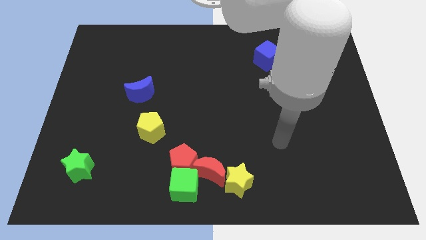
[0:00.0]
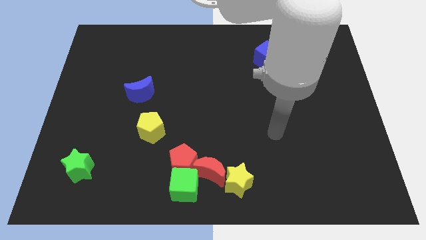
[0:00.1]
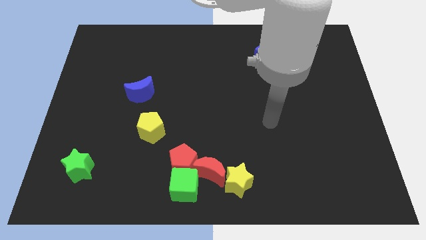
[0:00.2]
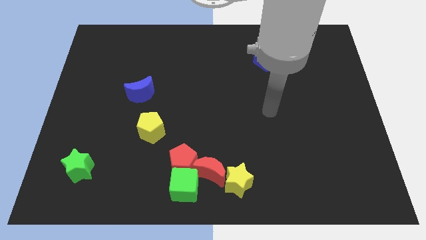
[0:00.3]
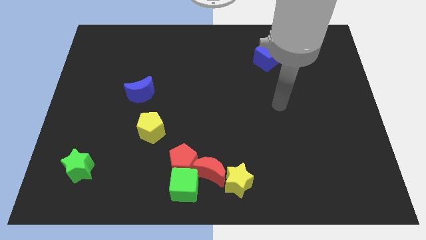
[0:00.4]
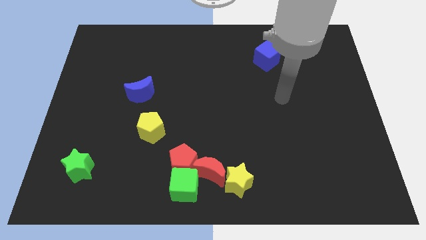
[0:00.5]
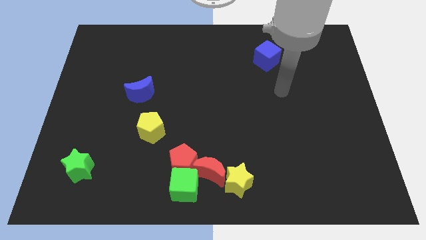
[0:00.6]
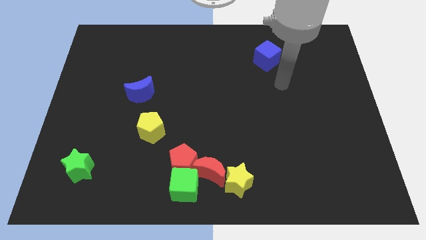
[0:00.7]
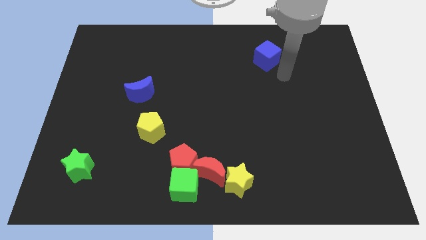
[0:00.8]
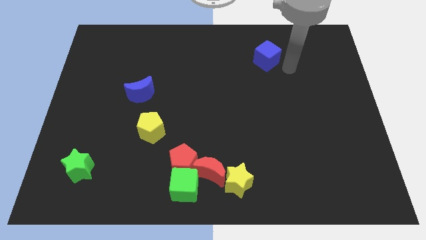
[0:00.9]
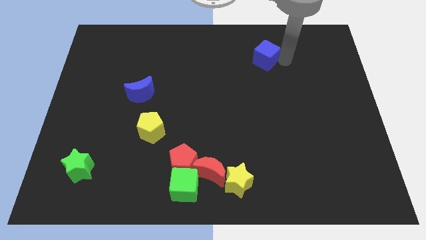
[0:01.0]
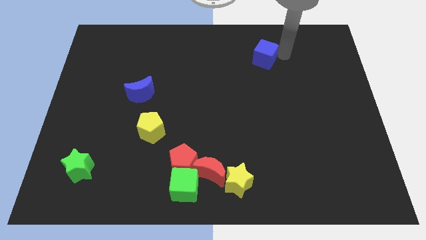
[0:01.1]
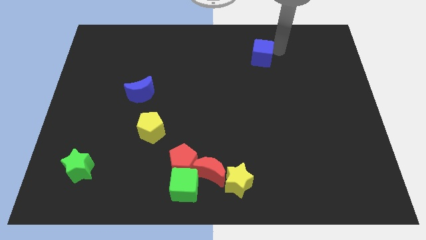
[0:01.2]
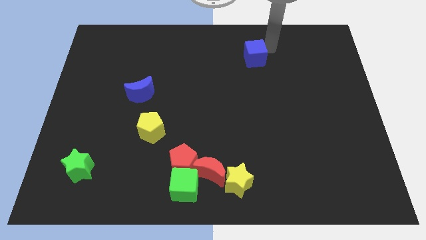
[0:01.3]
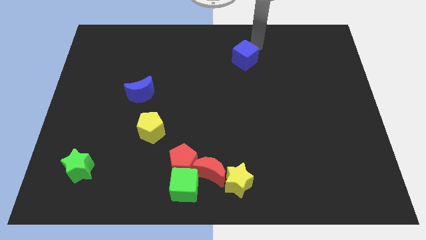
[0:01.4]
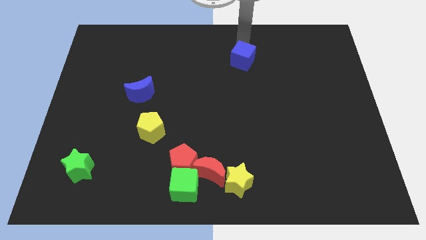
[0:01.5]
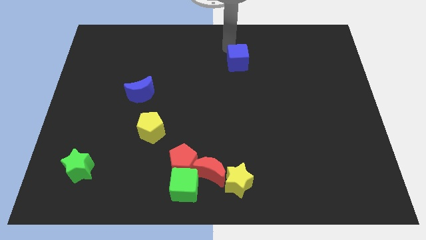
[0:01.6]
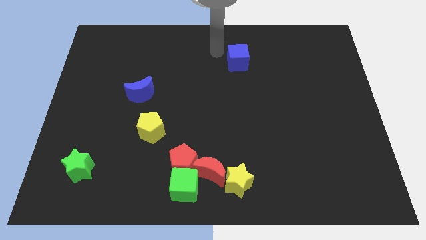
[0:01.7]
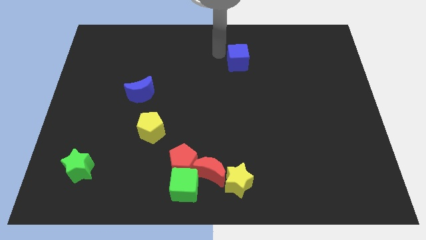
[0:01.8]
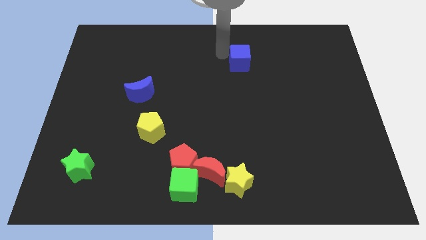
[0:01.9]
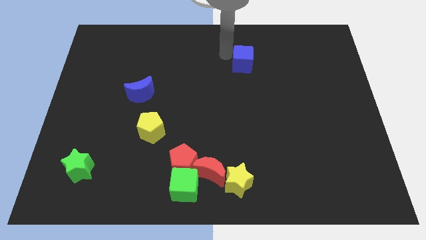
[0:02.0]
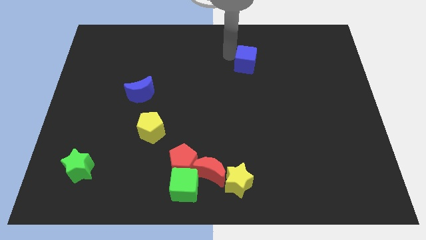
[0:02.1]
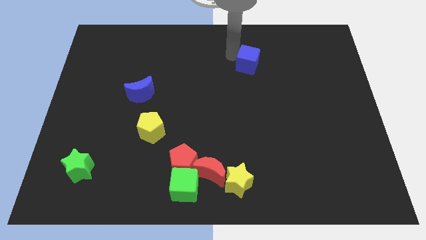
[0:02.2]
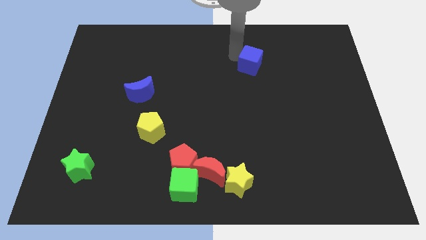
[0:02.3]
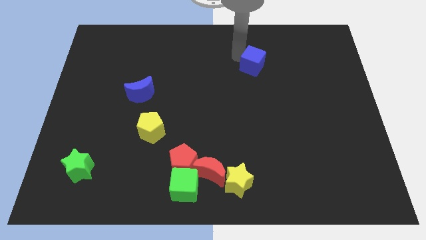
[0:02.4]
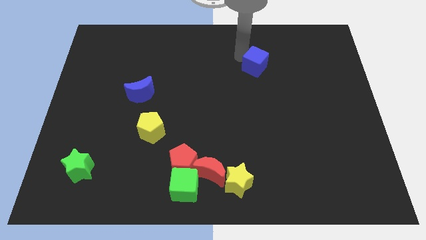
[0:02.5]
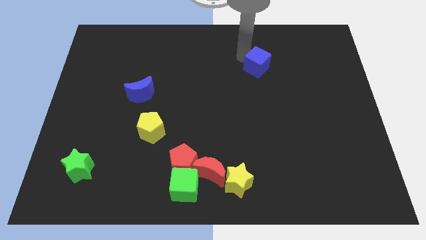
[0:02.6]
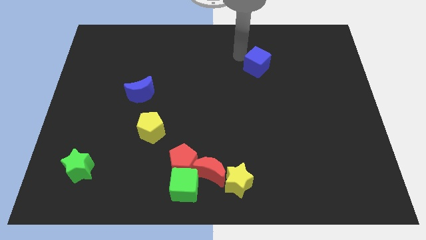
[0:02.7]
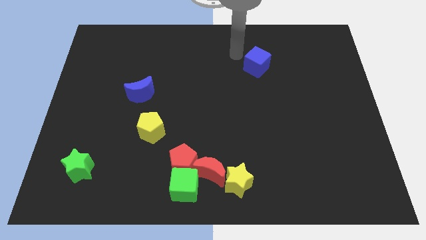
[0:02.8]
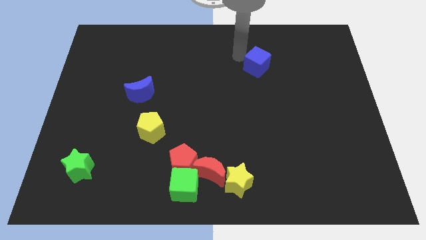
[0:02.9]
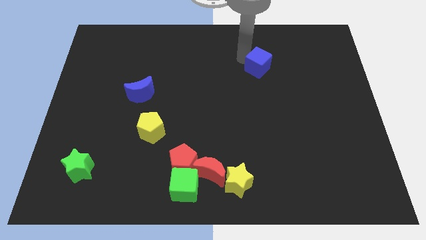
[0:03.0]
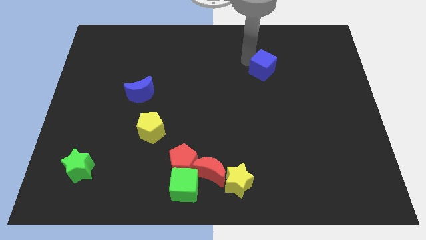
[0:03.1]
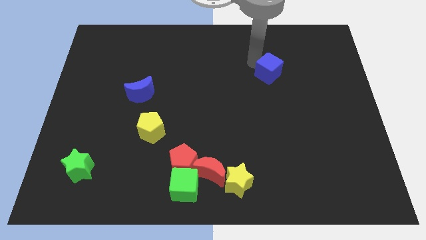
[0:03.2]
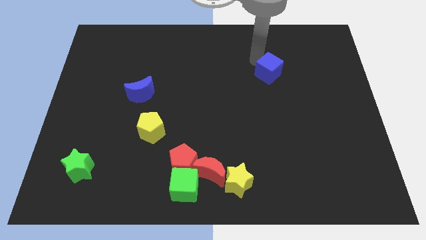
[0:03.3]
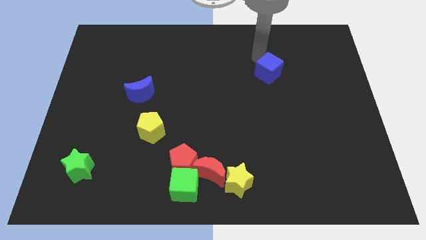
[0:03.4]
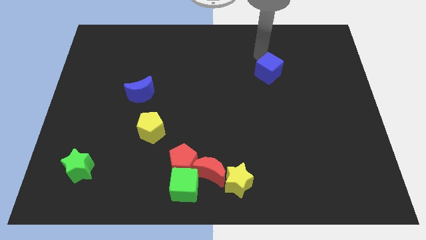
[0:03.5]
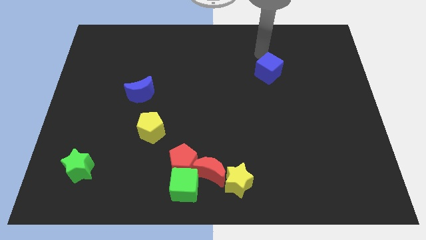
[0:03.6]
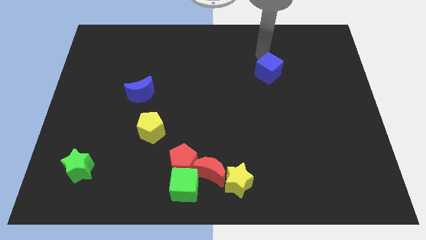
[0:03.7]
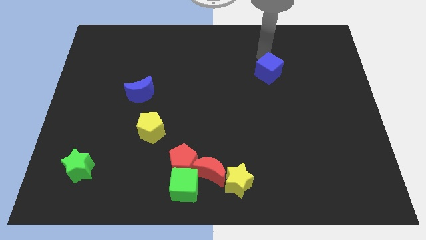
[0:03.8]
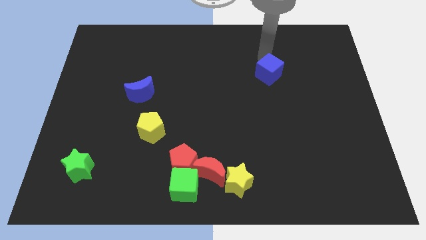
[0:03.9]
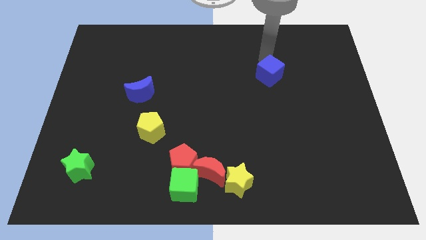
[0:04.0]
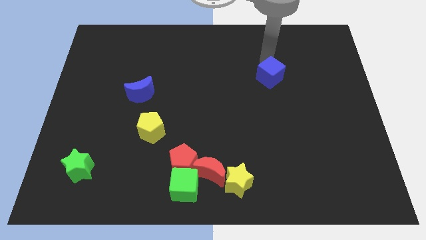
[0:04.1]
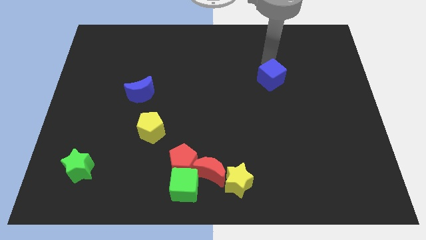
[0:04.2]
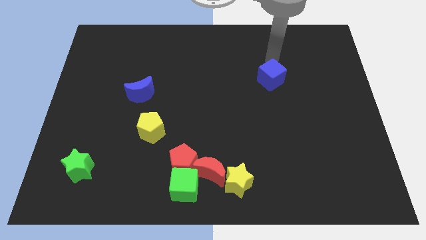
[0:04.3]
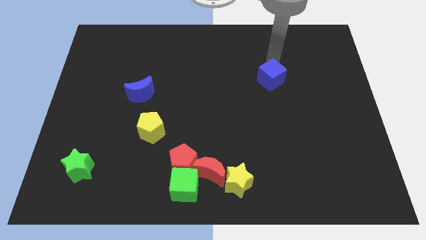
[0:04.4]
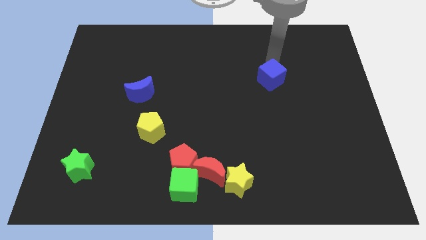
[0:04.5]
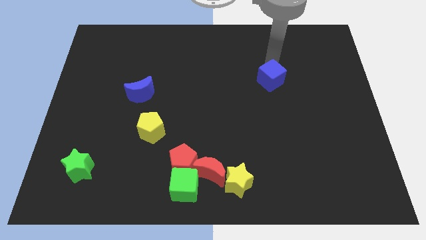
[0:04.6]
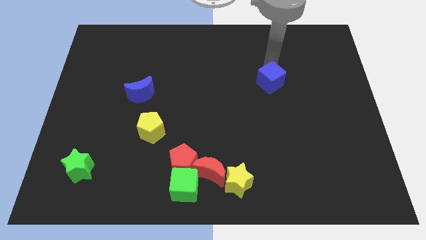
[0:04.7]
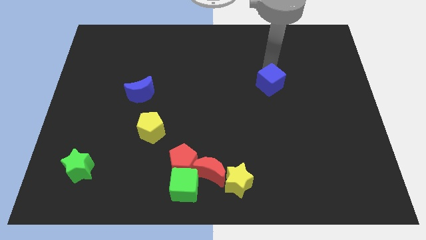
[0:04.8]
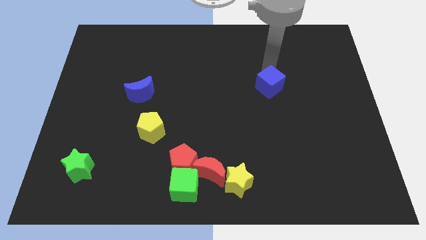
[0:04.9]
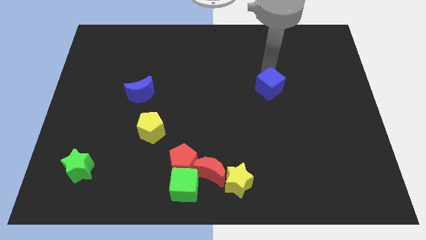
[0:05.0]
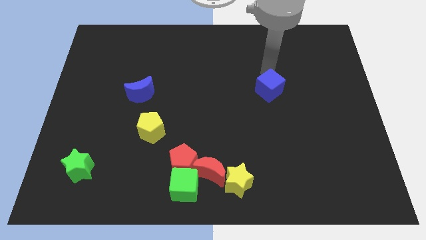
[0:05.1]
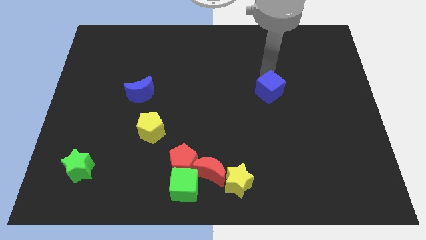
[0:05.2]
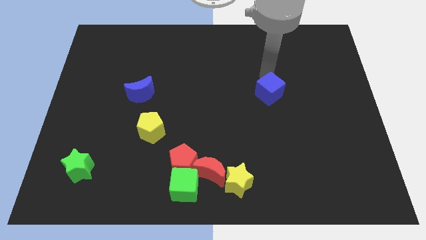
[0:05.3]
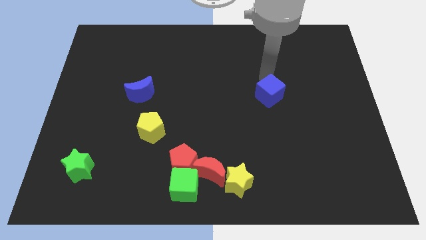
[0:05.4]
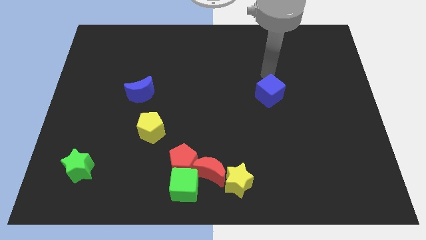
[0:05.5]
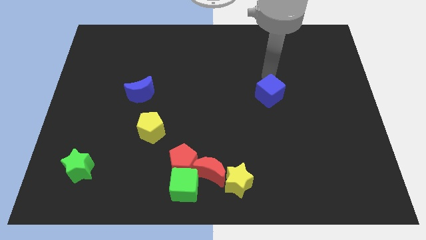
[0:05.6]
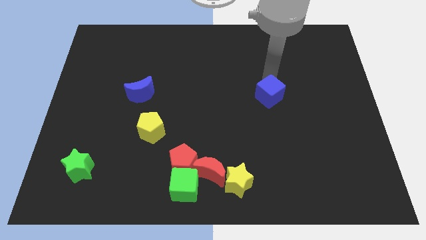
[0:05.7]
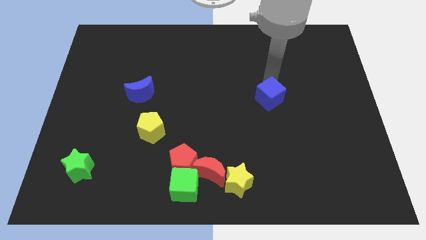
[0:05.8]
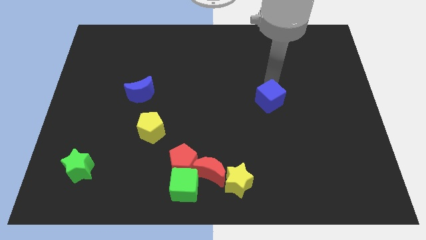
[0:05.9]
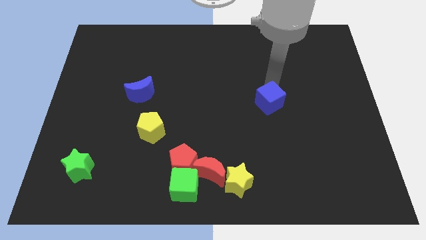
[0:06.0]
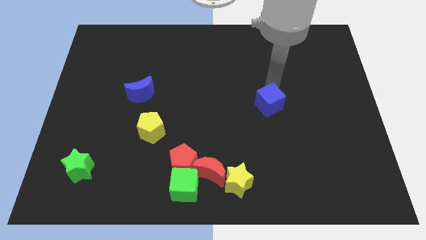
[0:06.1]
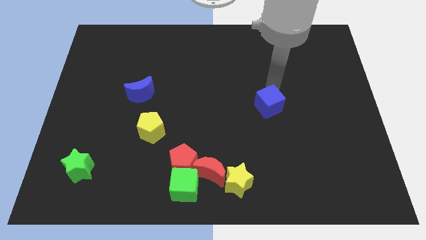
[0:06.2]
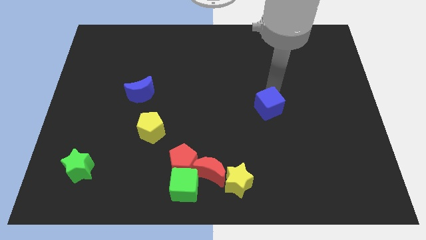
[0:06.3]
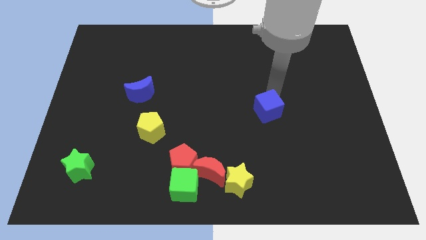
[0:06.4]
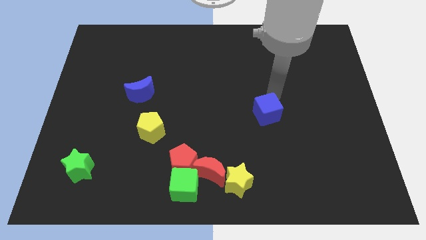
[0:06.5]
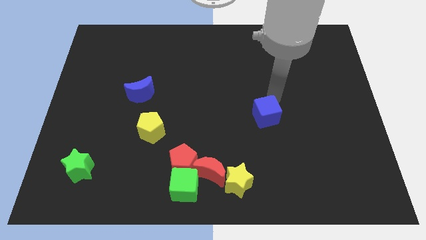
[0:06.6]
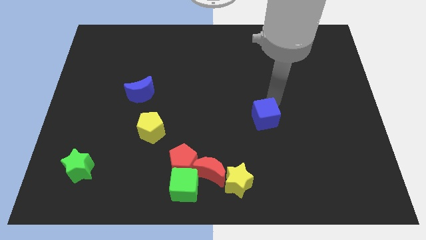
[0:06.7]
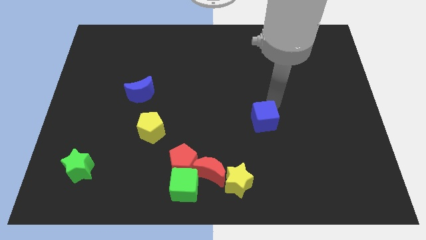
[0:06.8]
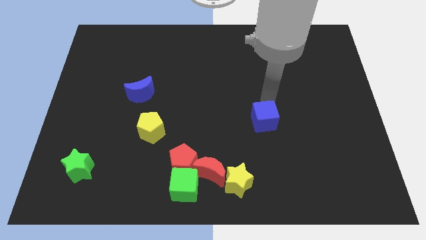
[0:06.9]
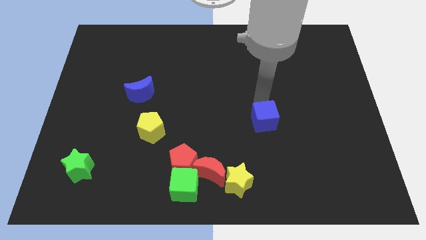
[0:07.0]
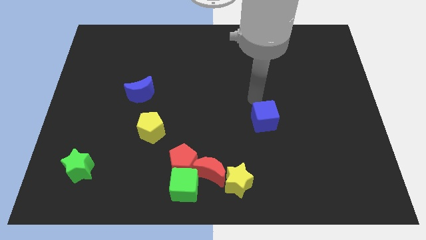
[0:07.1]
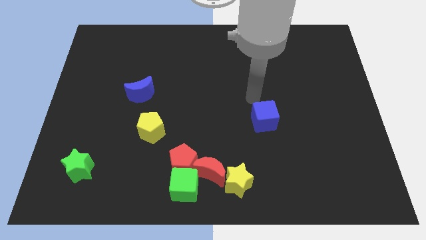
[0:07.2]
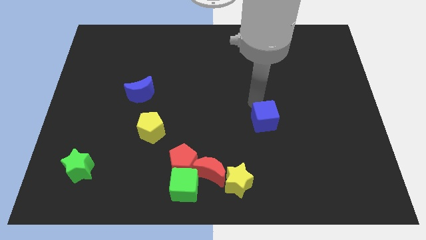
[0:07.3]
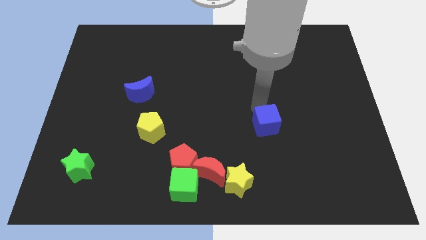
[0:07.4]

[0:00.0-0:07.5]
slide the blue cube down

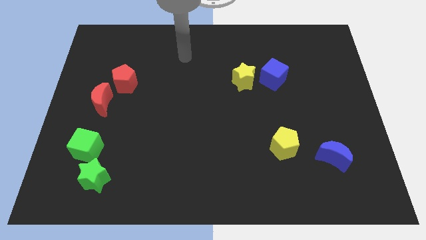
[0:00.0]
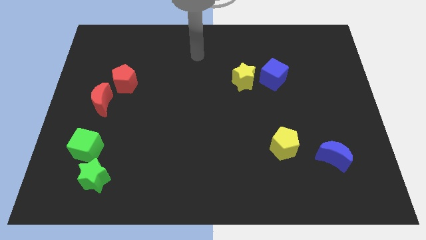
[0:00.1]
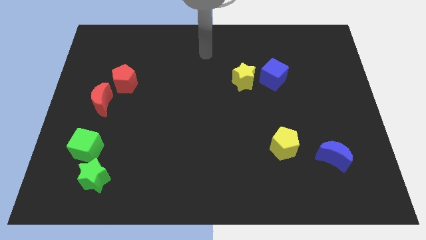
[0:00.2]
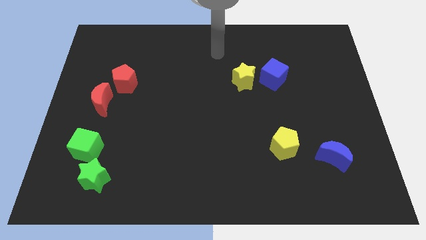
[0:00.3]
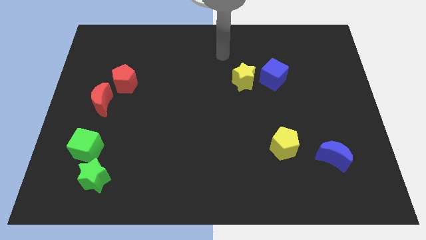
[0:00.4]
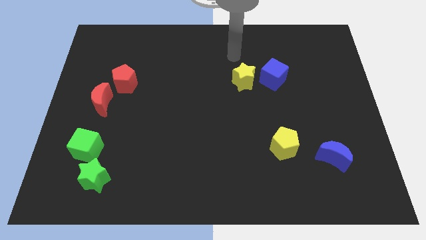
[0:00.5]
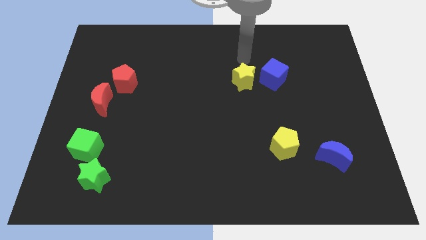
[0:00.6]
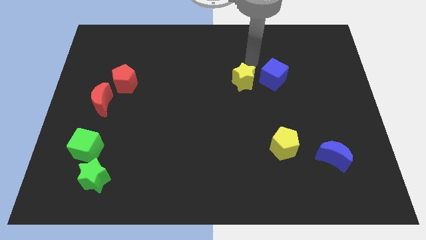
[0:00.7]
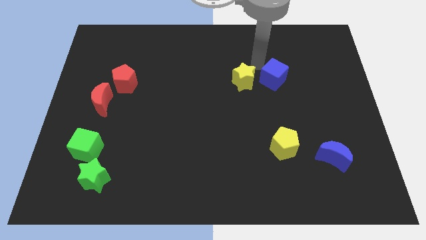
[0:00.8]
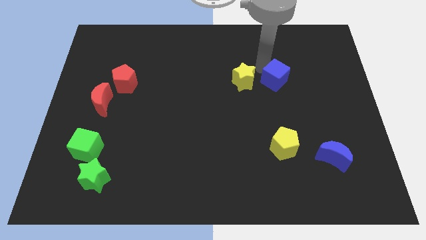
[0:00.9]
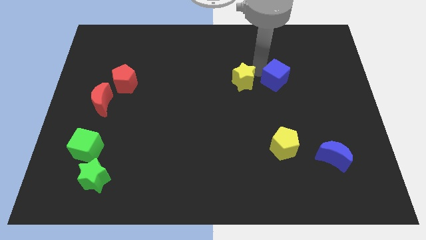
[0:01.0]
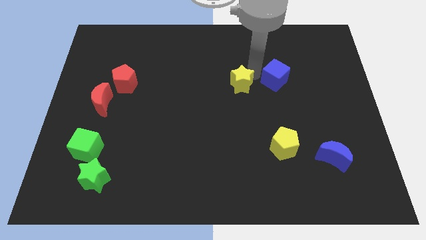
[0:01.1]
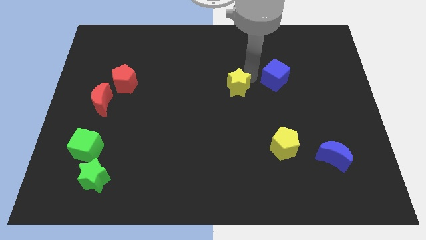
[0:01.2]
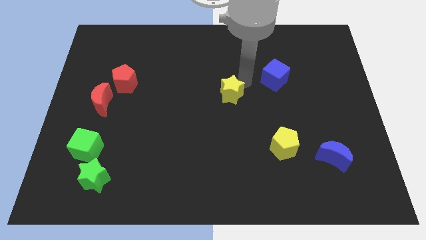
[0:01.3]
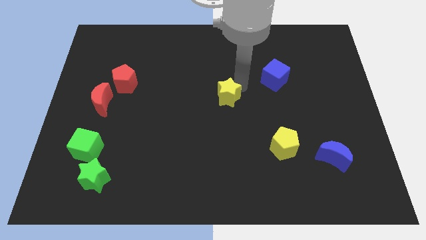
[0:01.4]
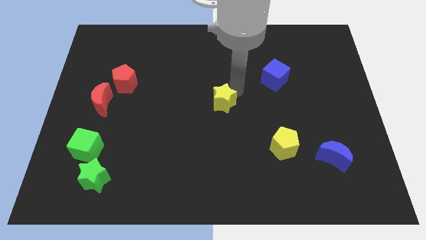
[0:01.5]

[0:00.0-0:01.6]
slightly push the yellow star down and to the left diagonally
